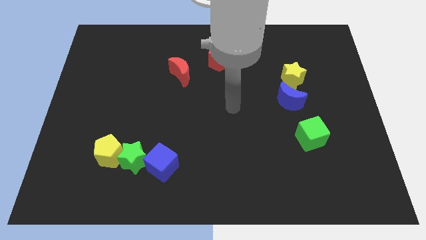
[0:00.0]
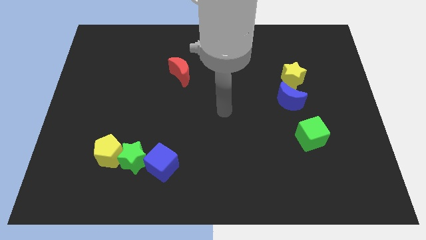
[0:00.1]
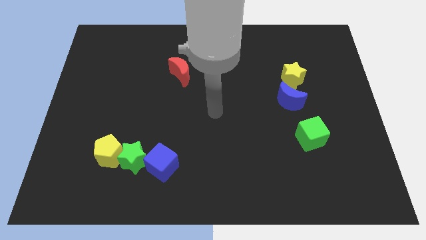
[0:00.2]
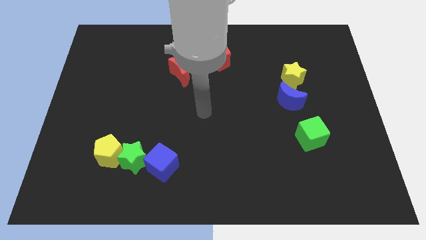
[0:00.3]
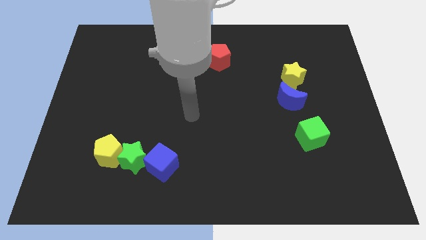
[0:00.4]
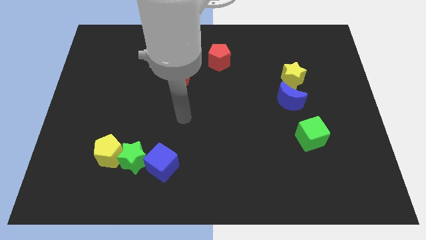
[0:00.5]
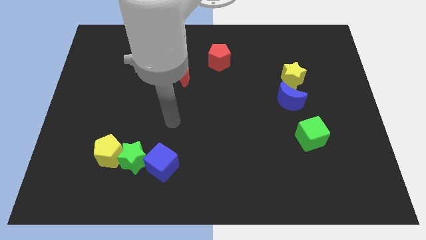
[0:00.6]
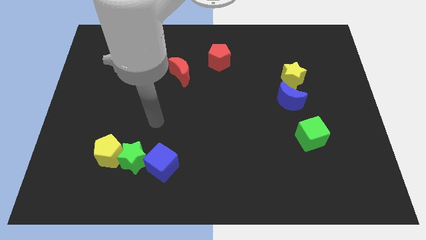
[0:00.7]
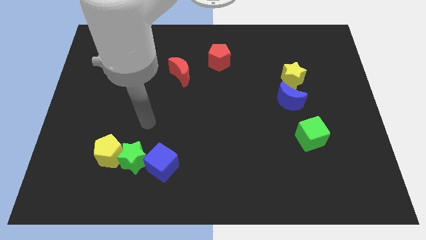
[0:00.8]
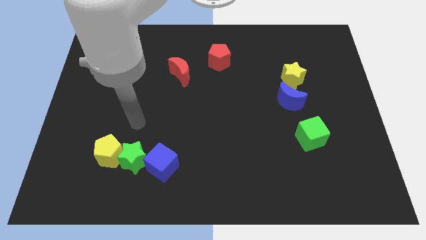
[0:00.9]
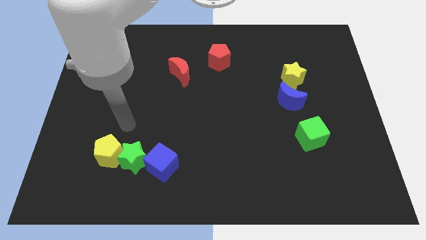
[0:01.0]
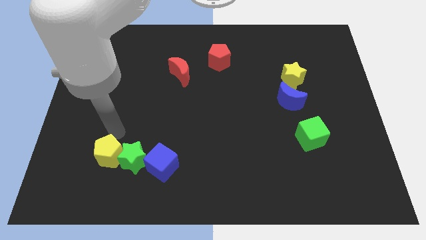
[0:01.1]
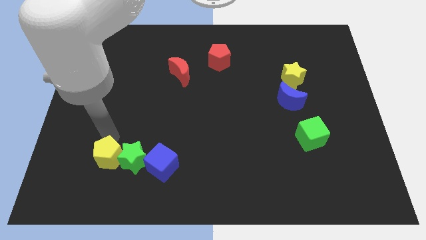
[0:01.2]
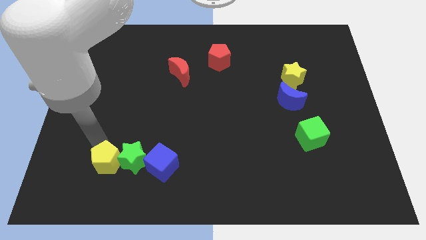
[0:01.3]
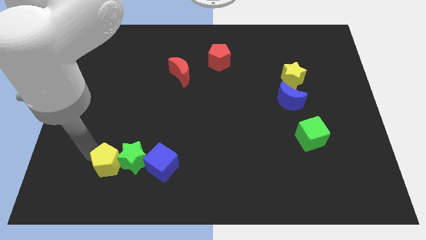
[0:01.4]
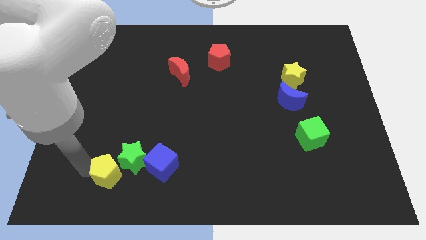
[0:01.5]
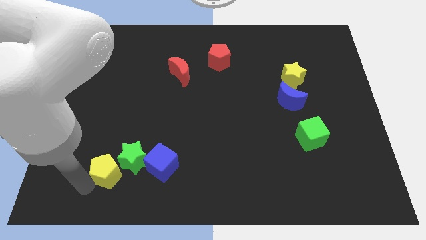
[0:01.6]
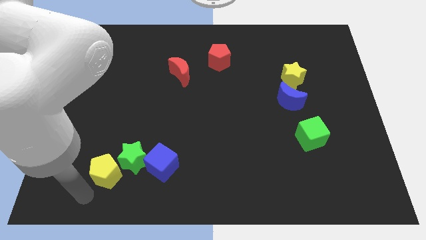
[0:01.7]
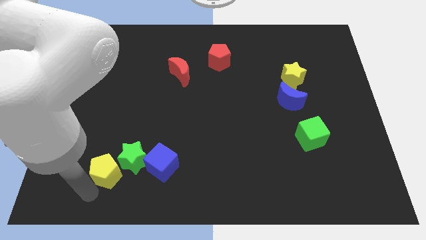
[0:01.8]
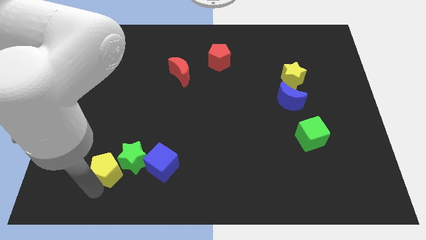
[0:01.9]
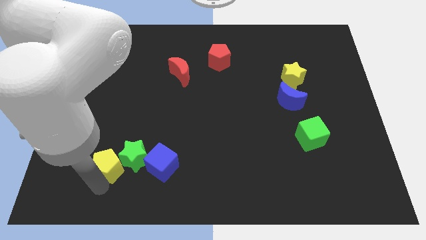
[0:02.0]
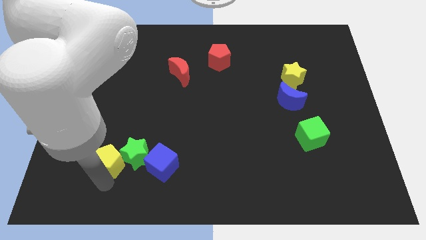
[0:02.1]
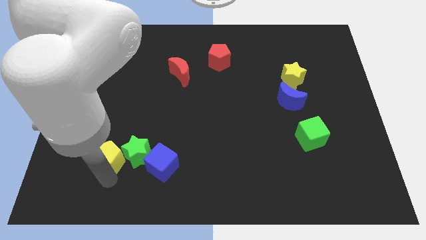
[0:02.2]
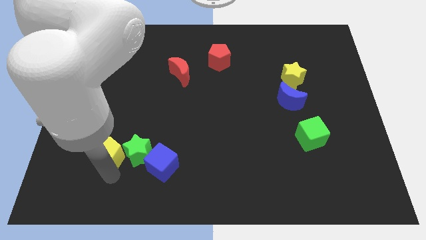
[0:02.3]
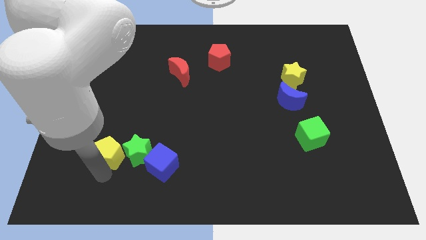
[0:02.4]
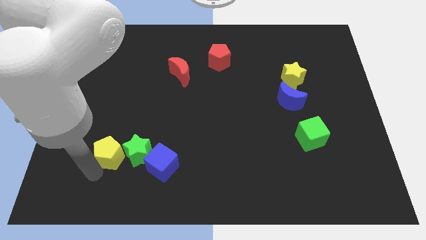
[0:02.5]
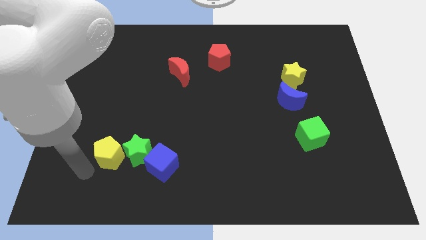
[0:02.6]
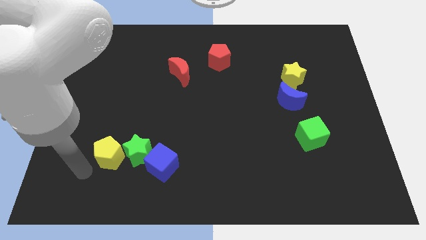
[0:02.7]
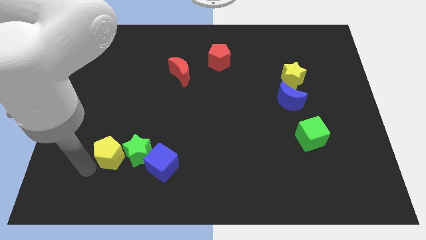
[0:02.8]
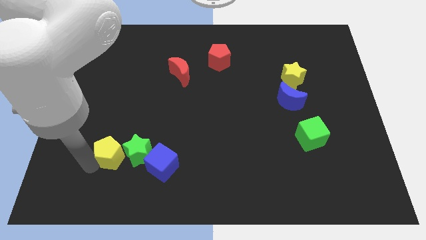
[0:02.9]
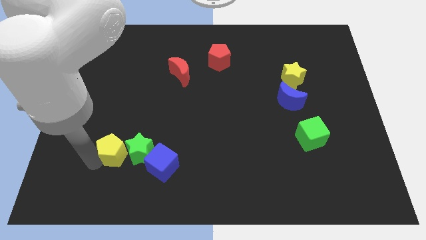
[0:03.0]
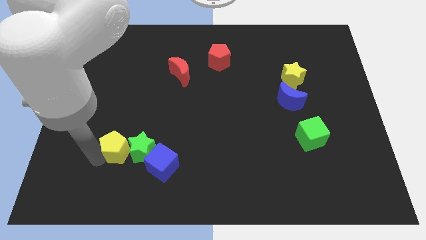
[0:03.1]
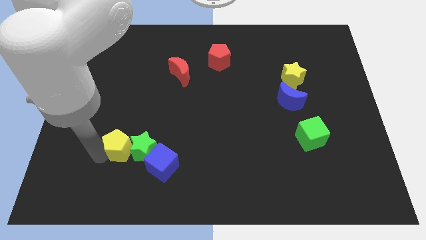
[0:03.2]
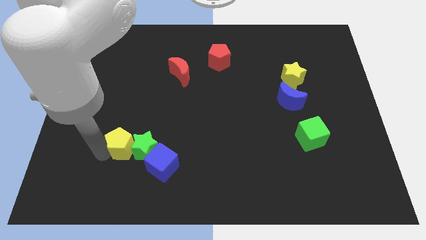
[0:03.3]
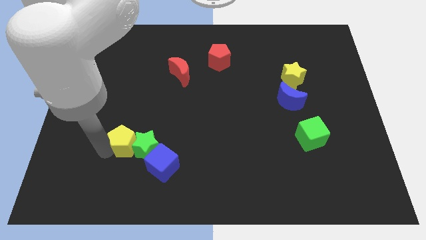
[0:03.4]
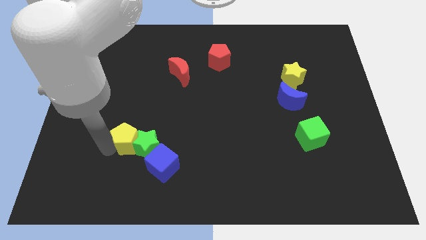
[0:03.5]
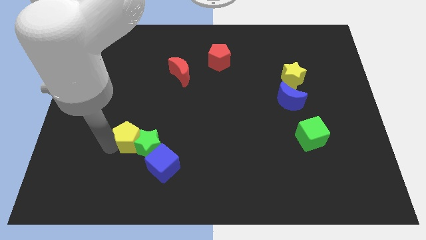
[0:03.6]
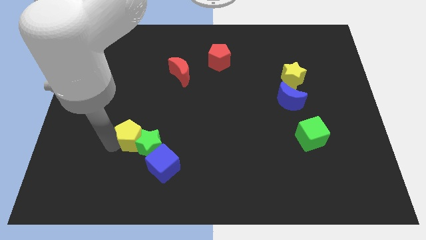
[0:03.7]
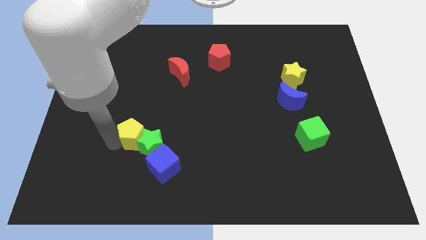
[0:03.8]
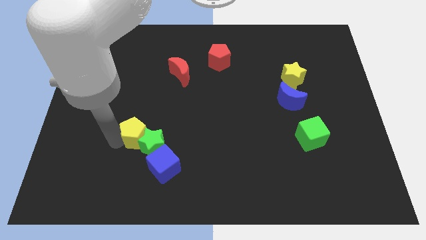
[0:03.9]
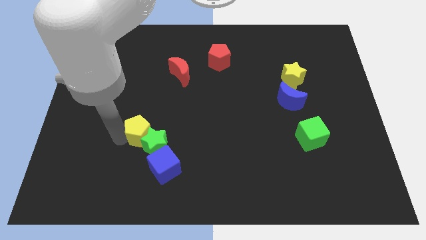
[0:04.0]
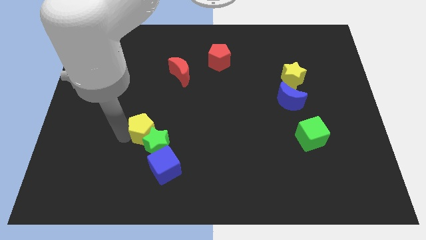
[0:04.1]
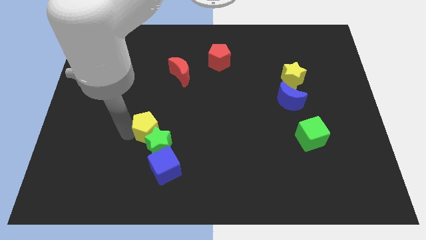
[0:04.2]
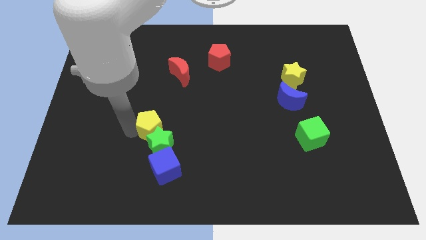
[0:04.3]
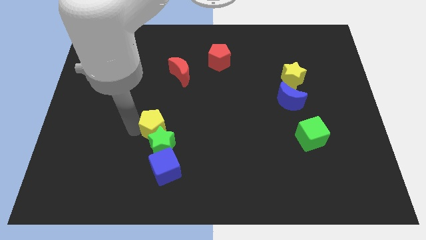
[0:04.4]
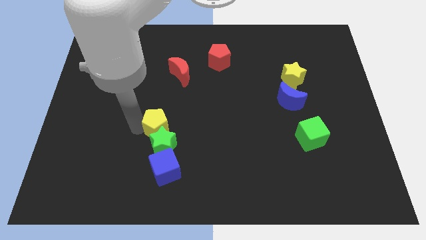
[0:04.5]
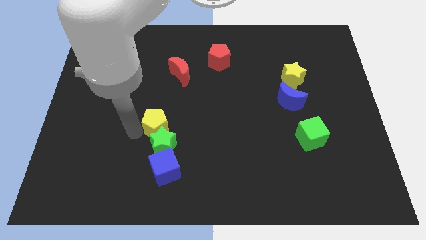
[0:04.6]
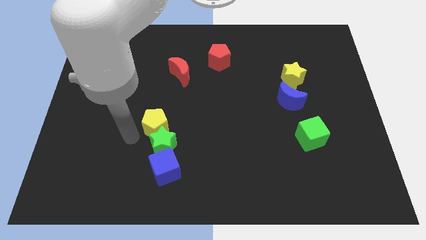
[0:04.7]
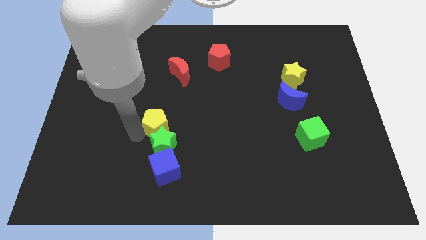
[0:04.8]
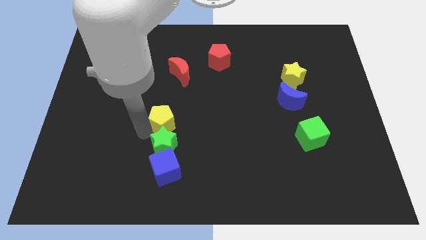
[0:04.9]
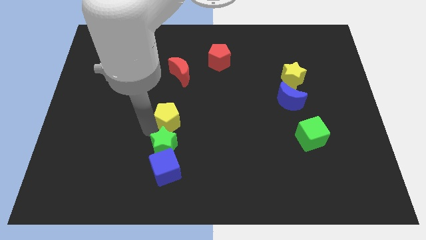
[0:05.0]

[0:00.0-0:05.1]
move the yellow pentagon to the middle

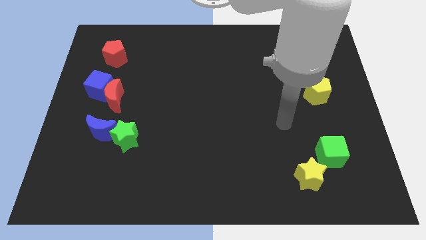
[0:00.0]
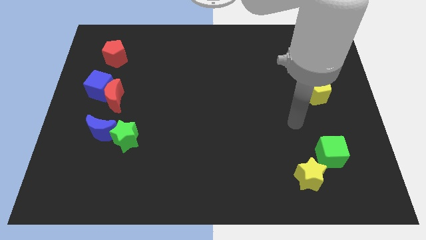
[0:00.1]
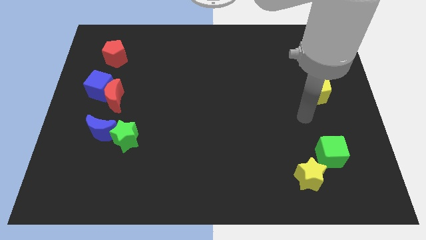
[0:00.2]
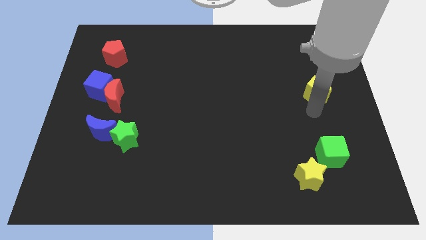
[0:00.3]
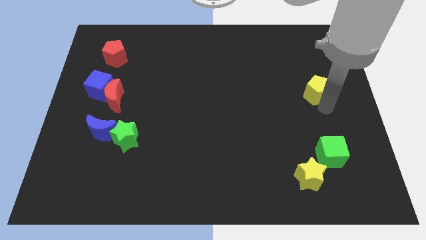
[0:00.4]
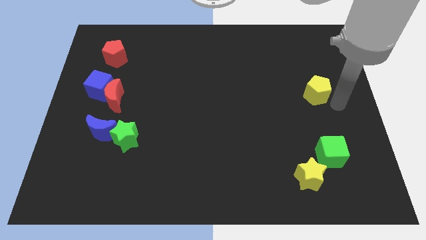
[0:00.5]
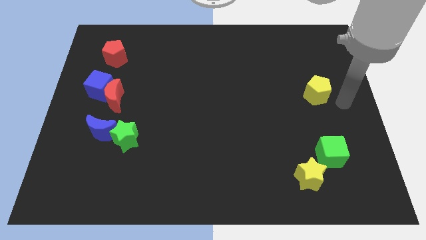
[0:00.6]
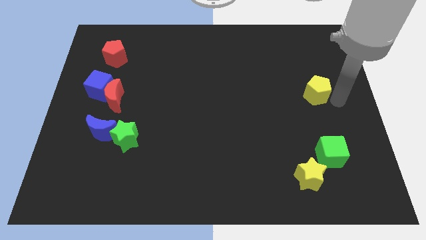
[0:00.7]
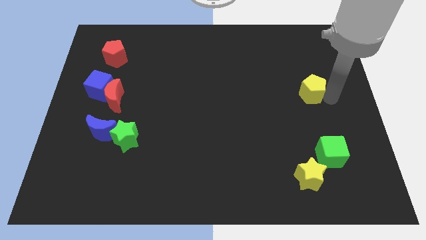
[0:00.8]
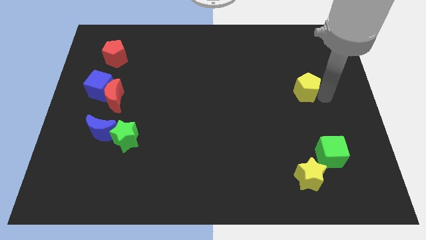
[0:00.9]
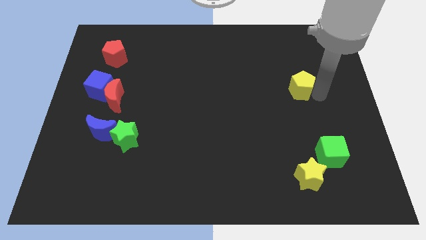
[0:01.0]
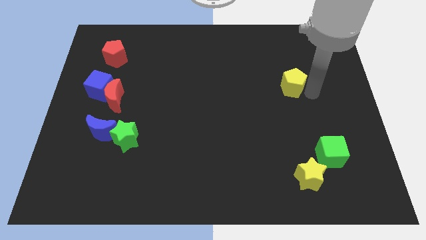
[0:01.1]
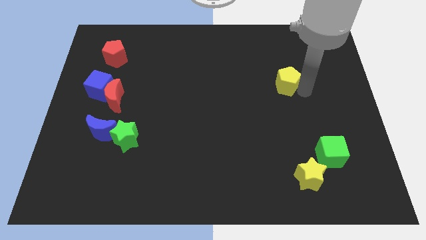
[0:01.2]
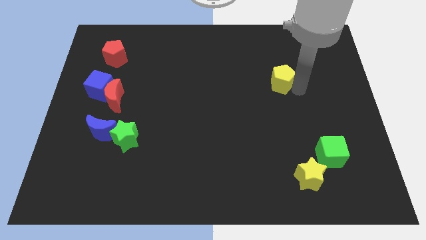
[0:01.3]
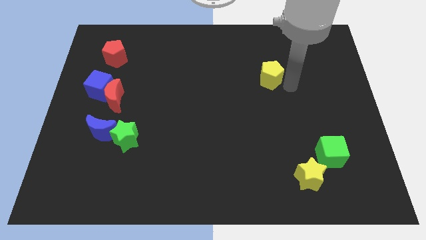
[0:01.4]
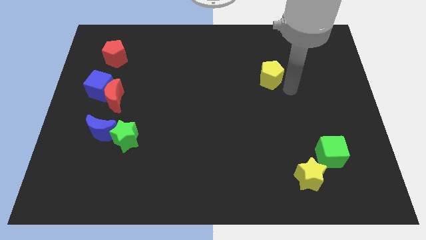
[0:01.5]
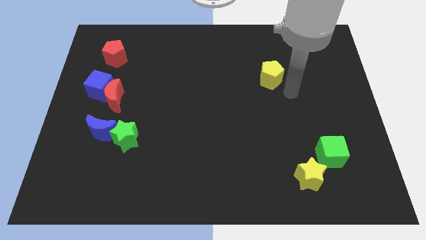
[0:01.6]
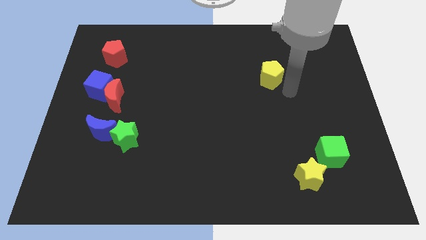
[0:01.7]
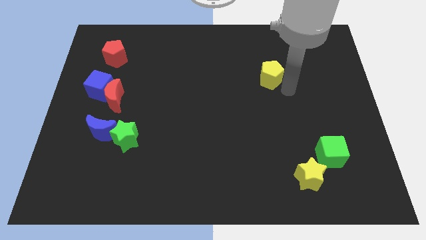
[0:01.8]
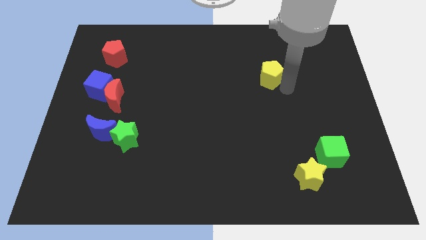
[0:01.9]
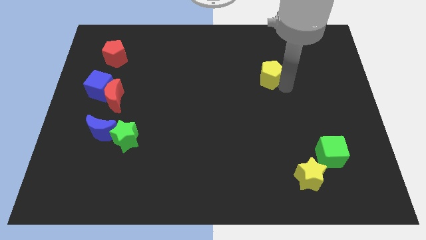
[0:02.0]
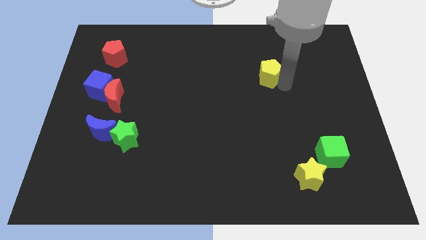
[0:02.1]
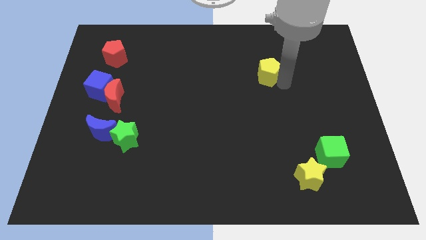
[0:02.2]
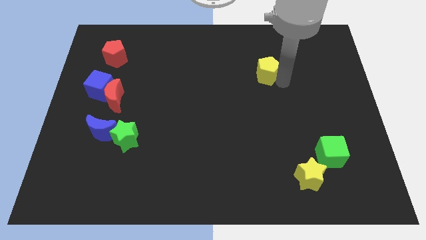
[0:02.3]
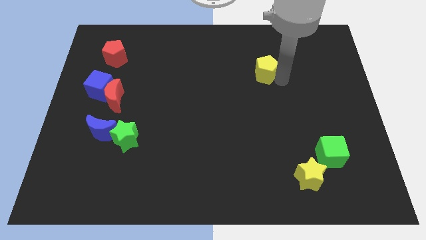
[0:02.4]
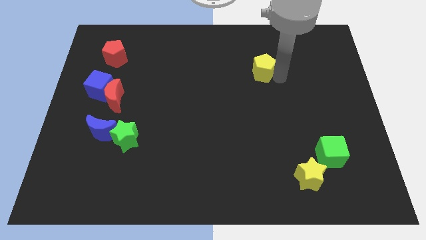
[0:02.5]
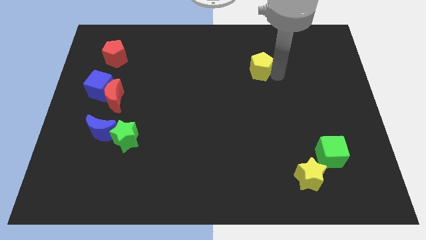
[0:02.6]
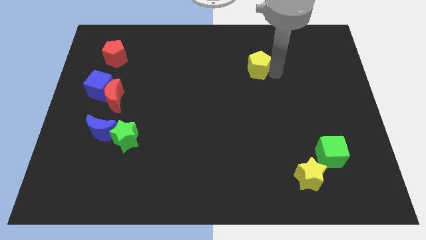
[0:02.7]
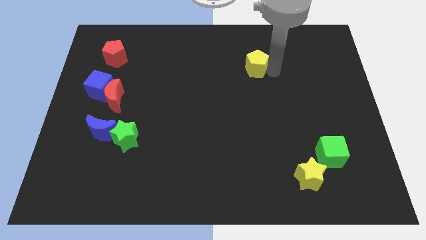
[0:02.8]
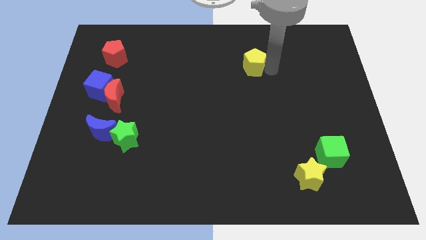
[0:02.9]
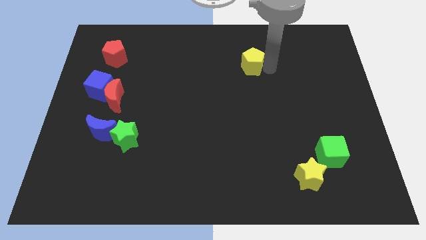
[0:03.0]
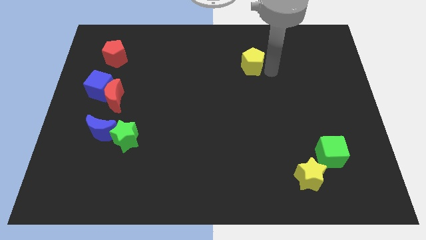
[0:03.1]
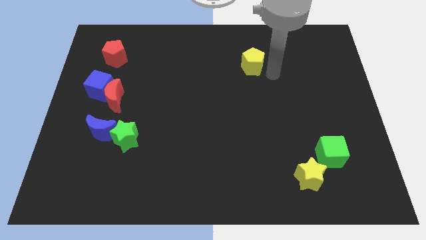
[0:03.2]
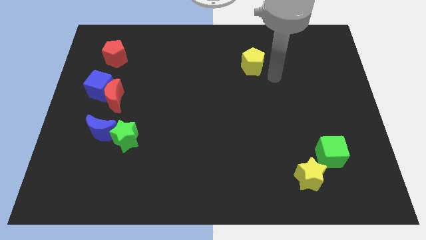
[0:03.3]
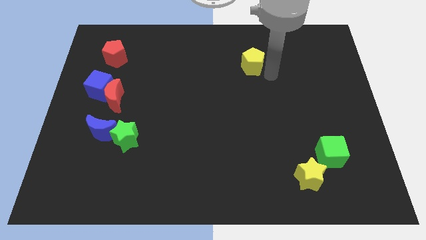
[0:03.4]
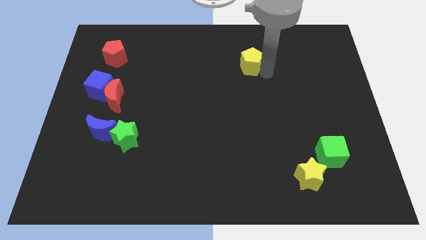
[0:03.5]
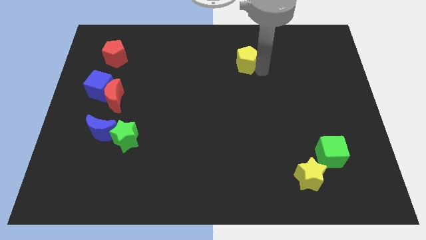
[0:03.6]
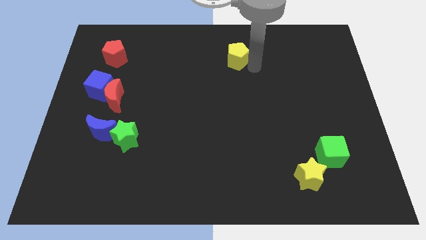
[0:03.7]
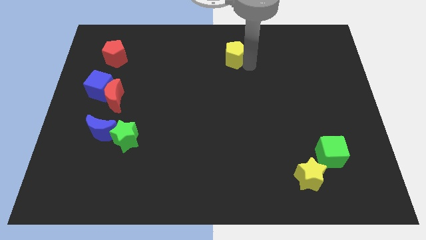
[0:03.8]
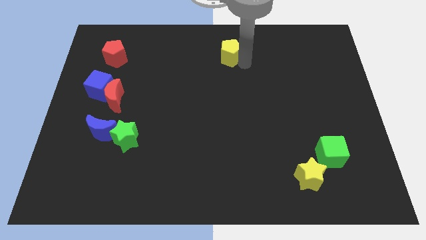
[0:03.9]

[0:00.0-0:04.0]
slide the yellow pentagon to the towards your base
